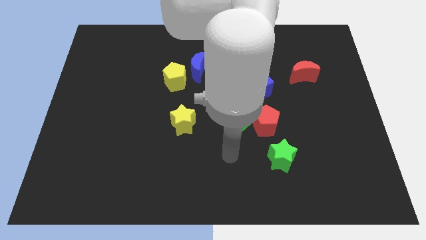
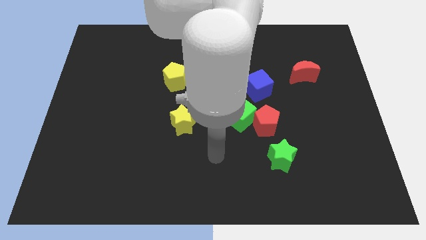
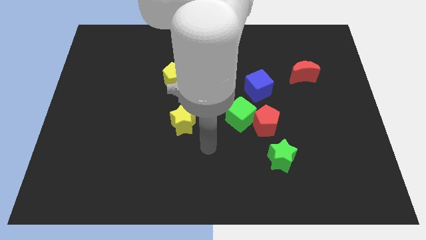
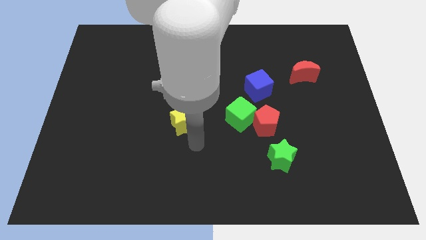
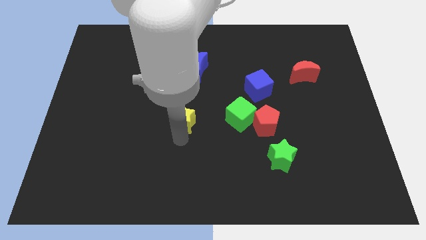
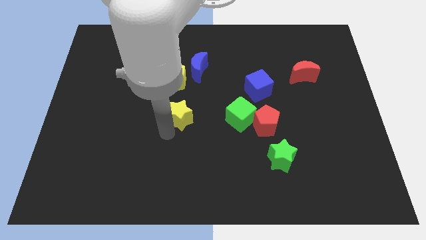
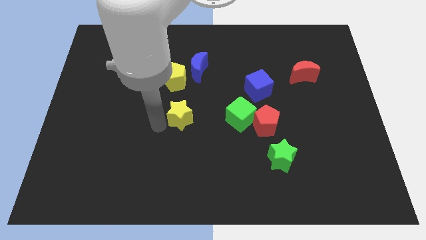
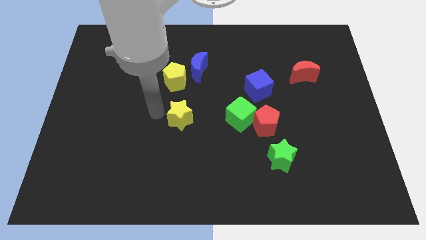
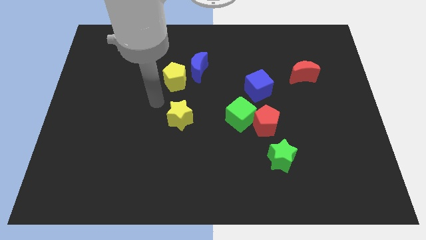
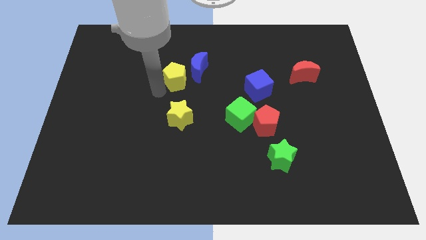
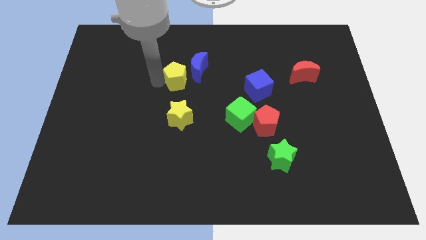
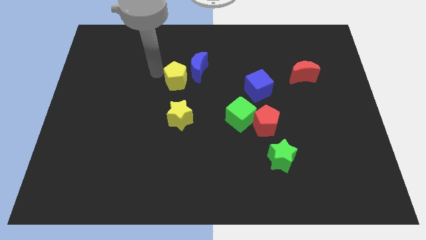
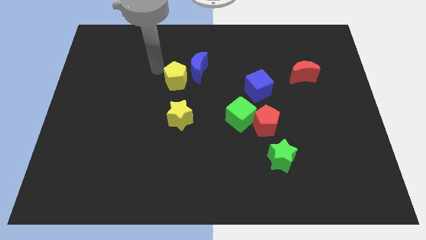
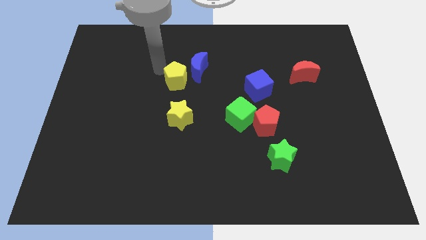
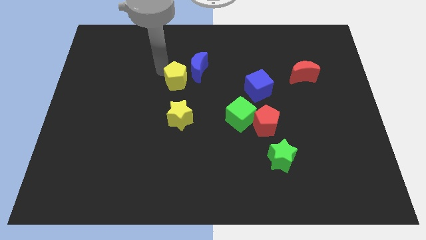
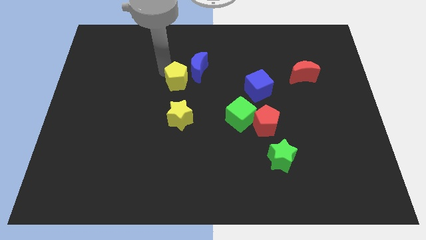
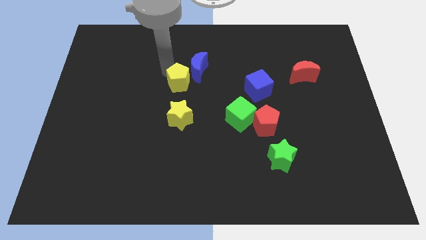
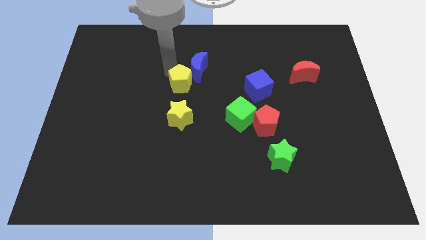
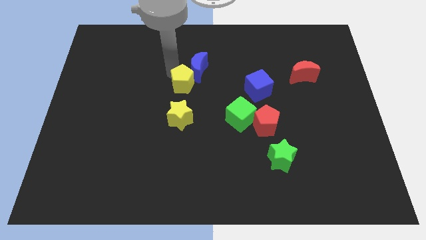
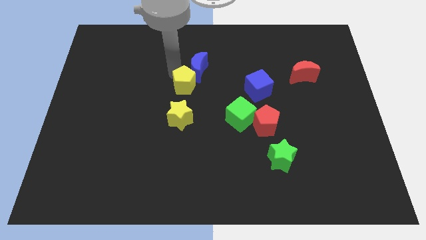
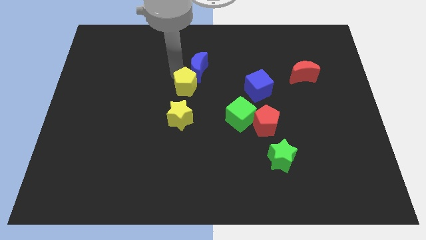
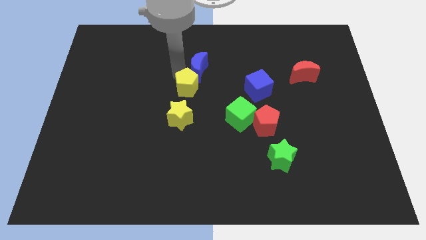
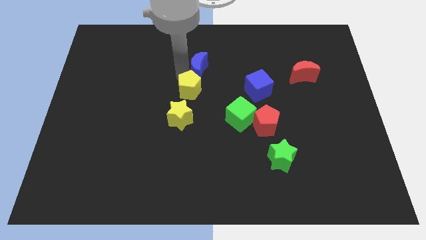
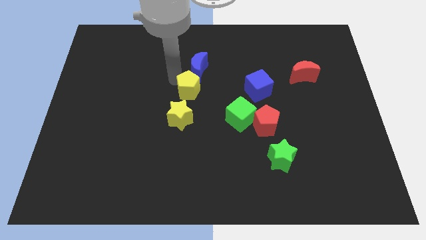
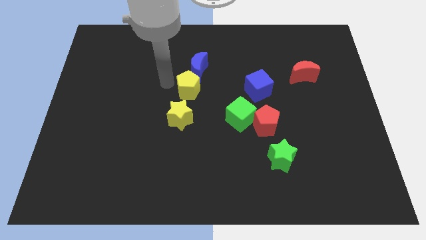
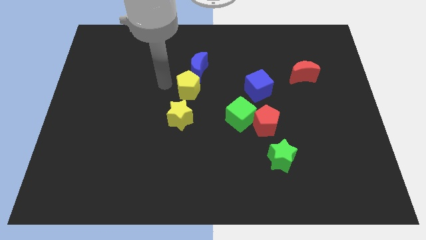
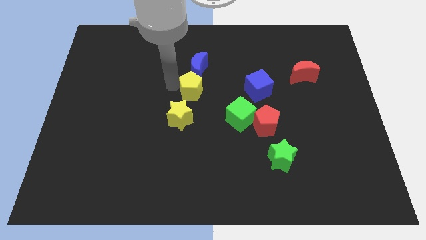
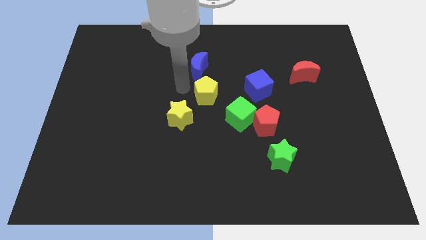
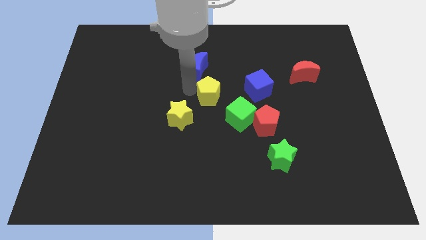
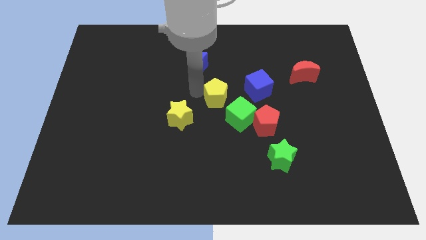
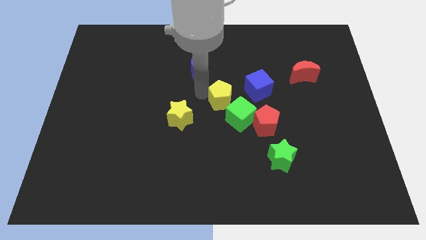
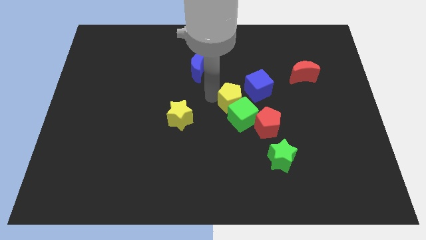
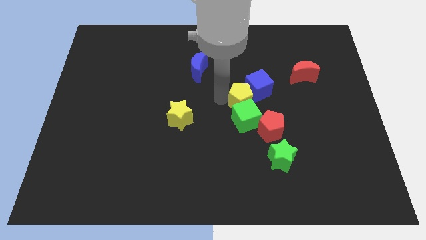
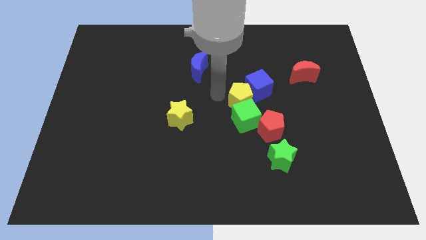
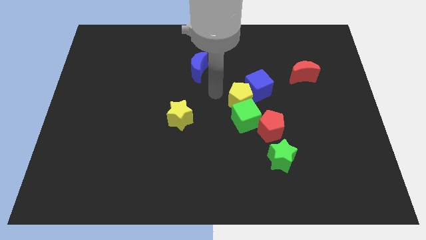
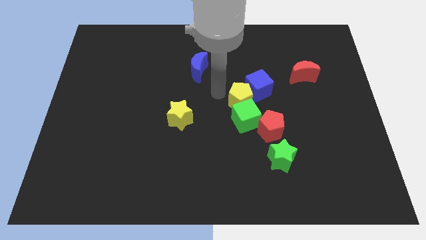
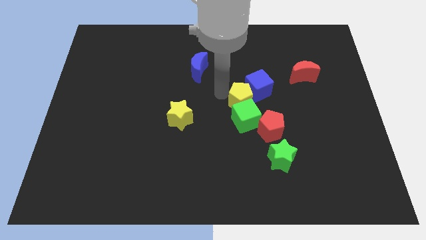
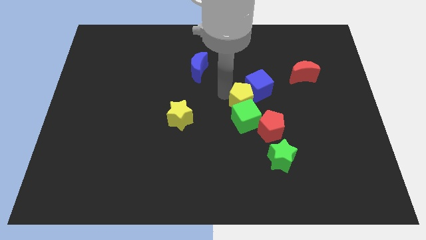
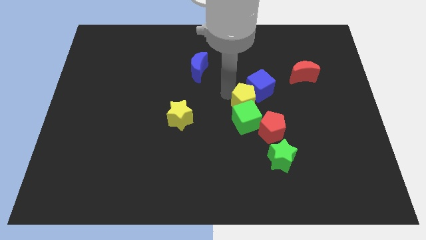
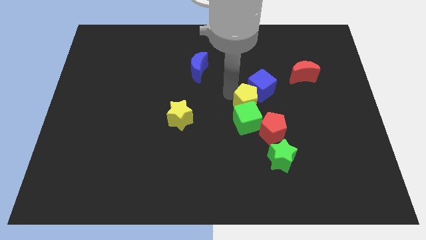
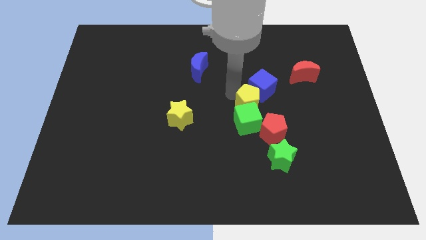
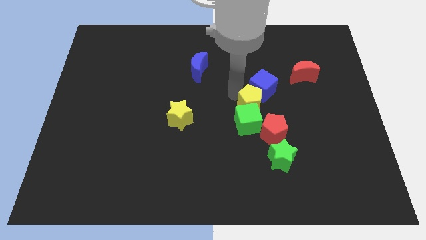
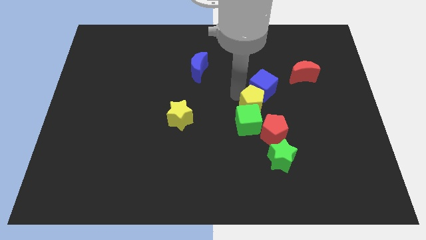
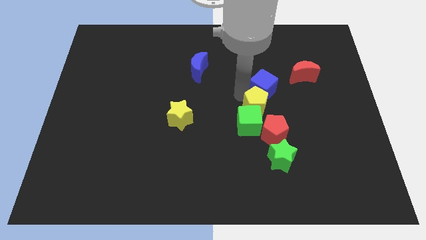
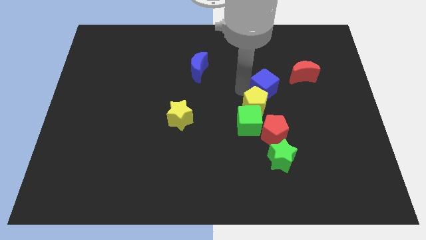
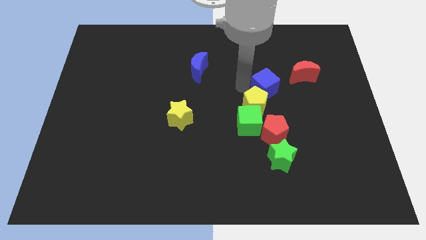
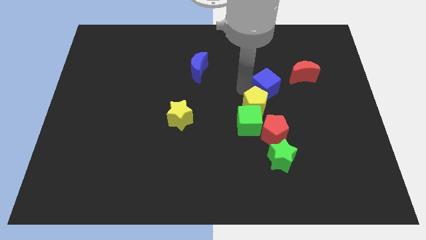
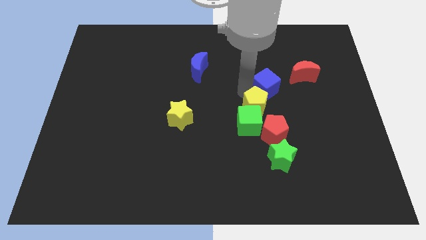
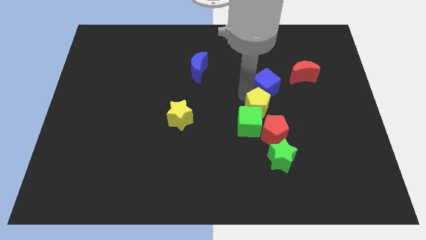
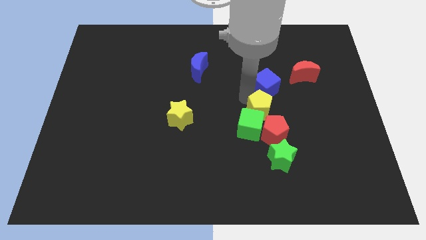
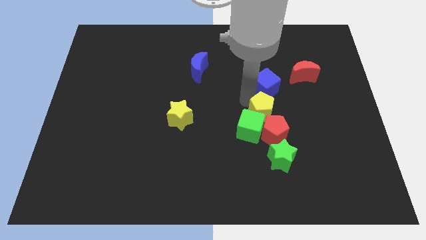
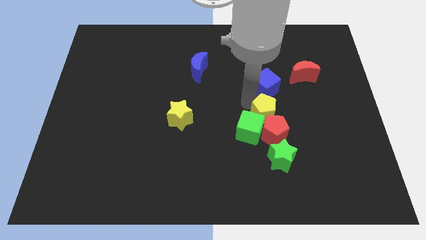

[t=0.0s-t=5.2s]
put the yellow pentagon next to the red pentagon
